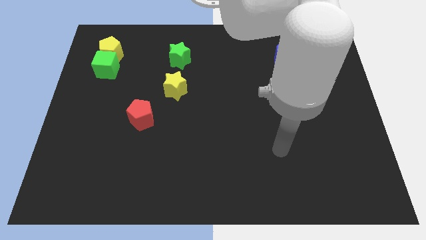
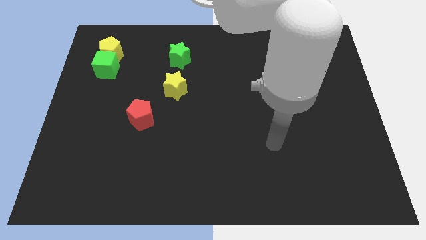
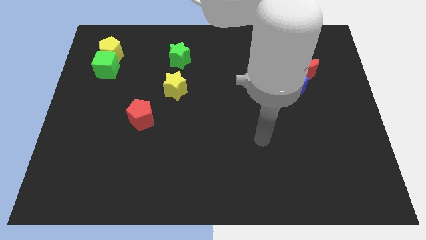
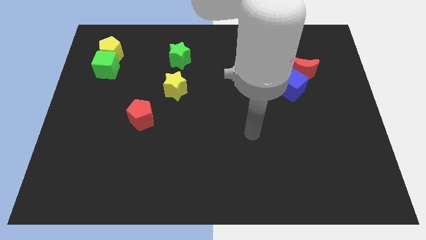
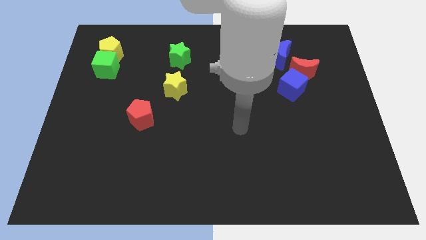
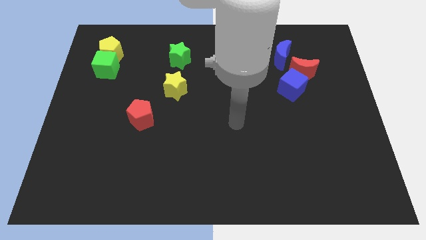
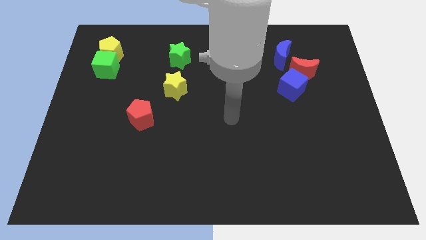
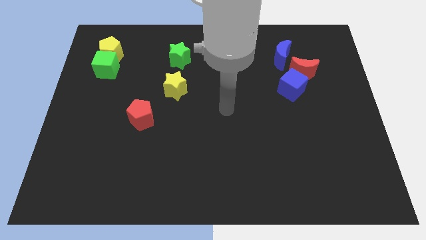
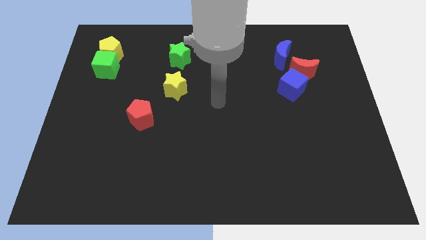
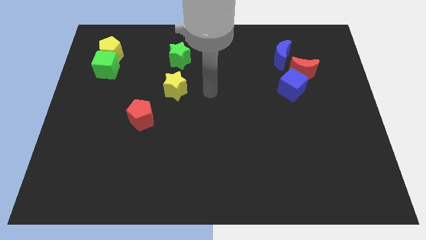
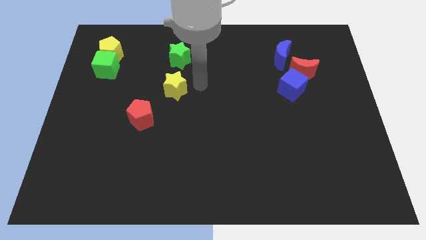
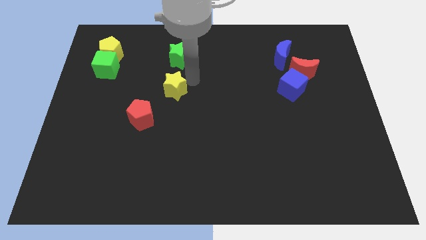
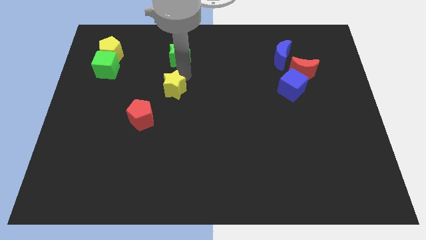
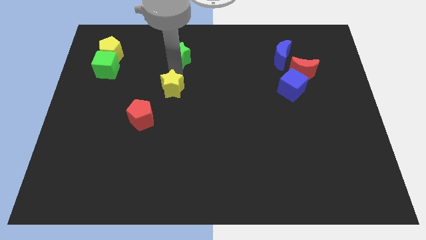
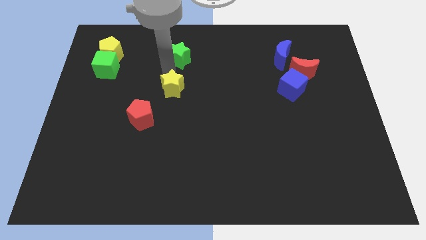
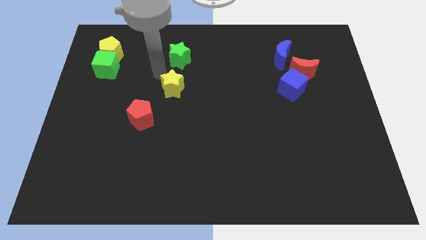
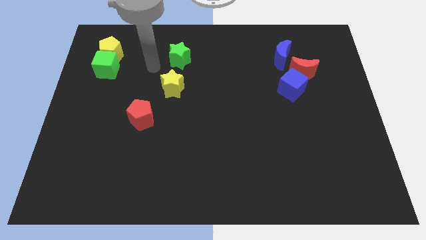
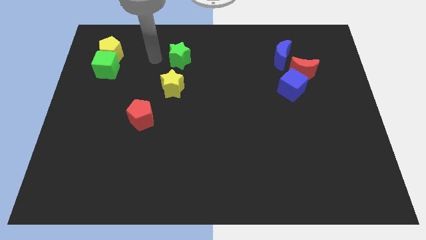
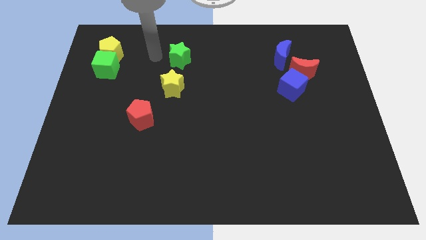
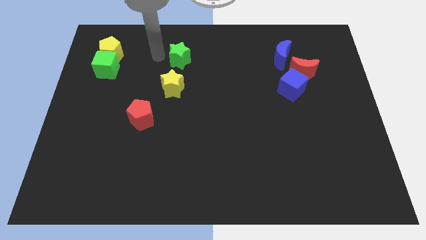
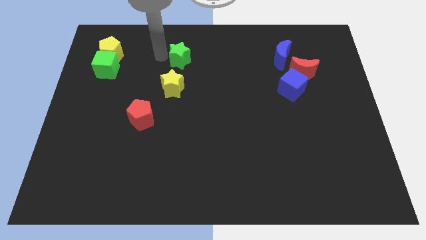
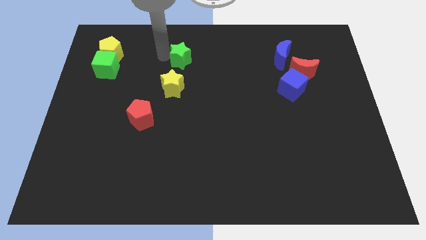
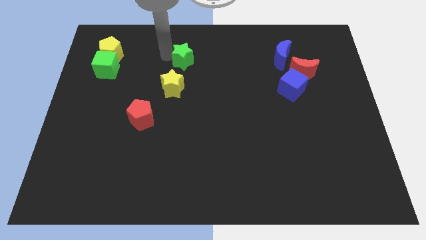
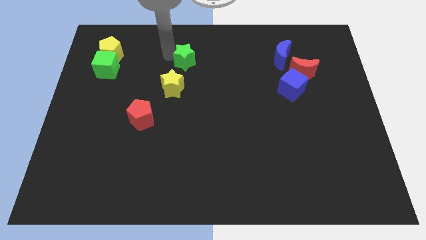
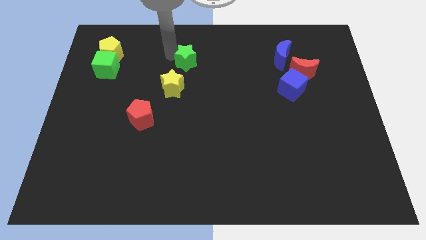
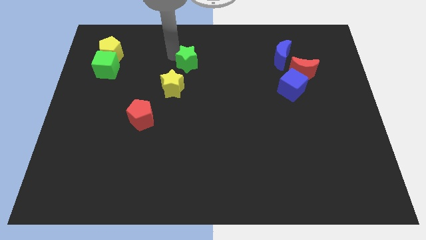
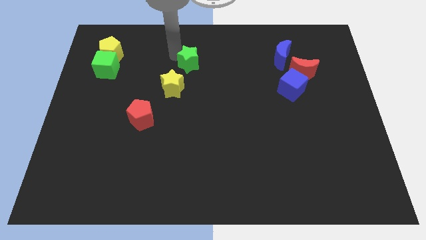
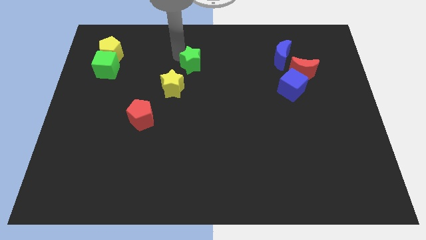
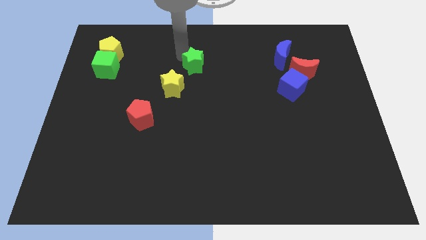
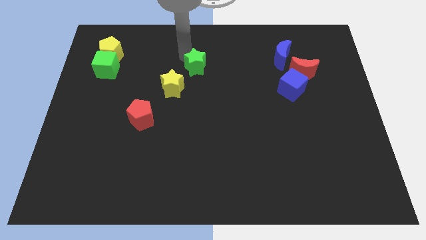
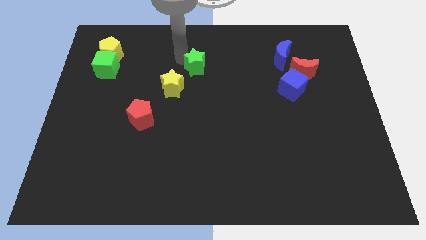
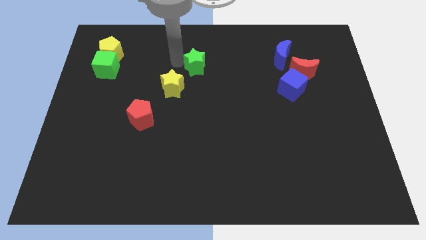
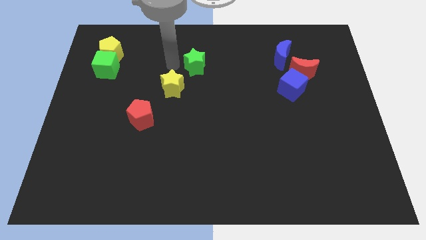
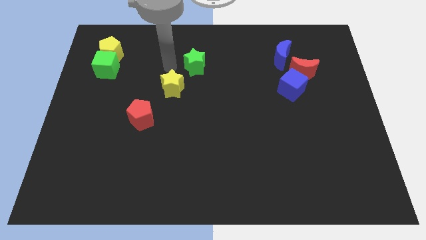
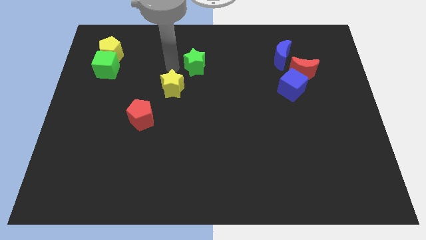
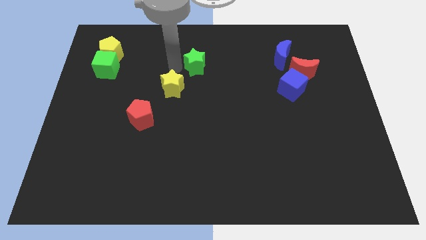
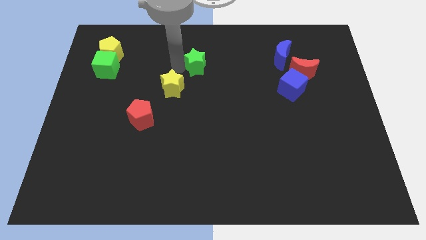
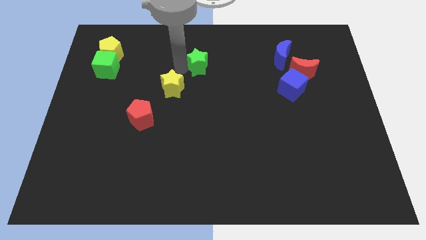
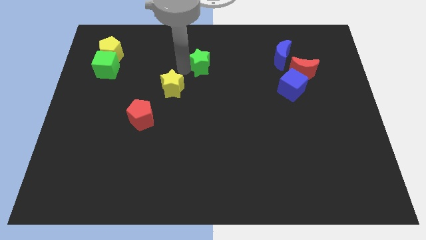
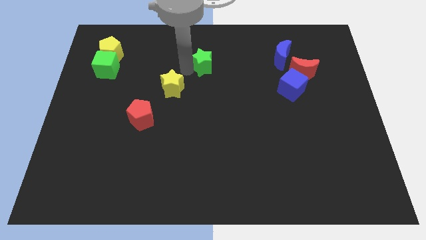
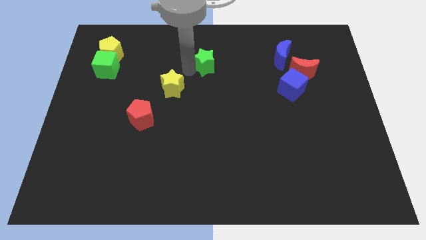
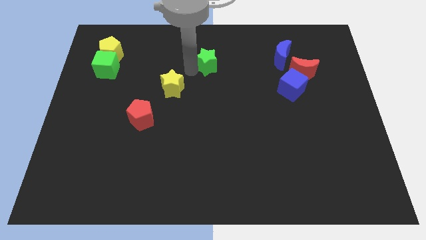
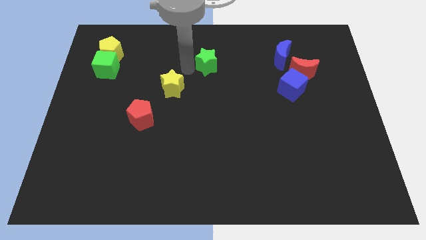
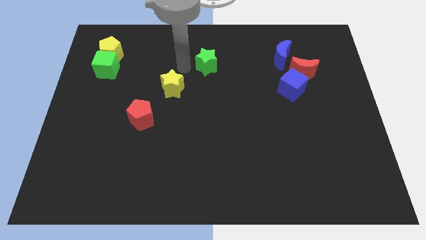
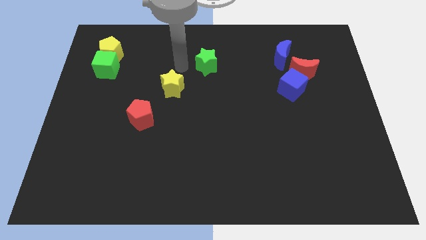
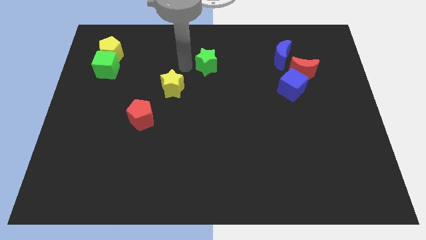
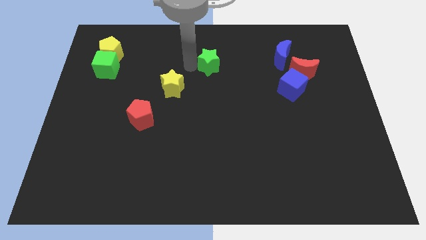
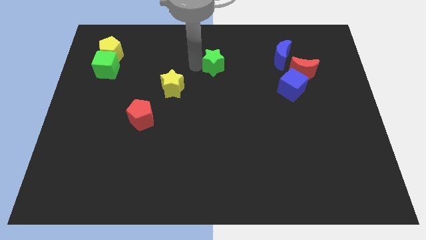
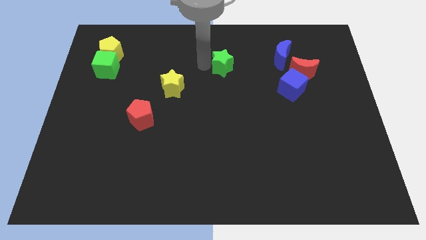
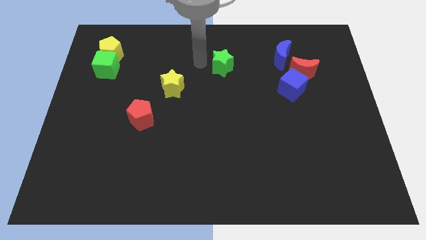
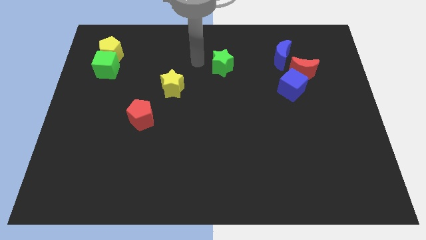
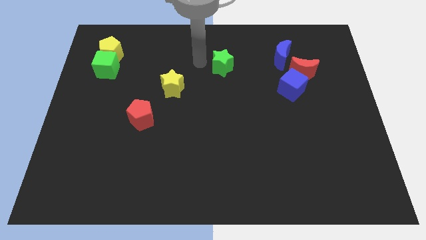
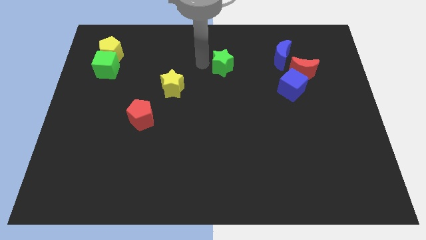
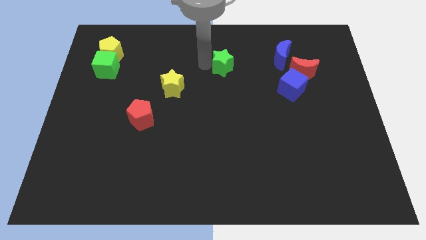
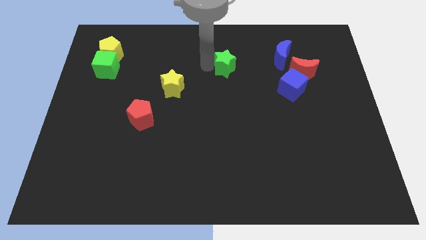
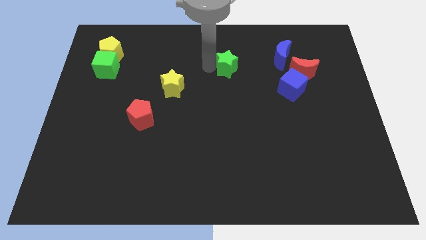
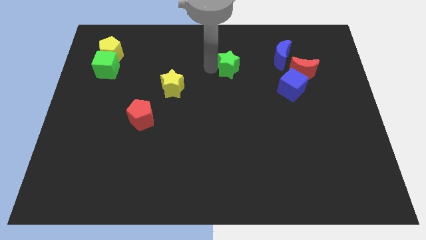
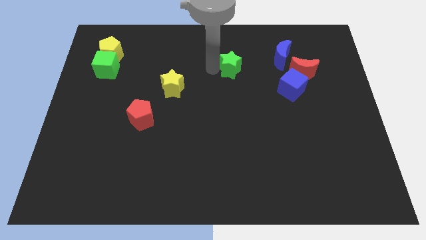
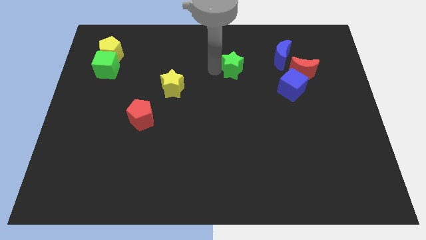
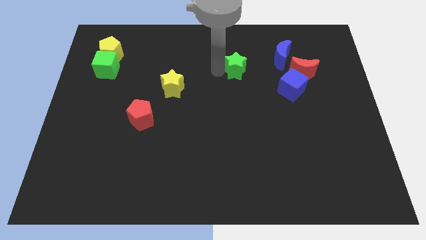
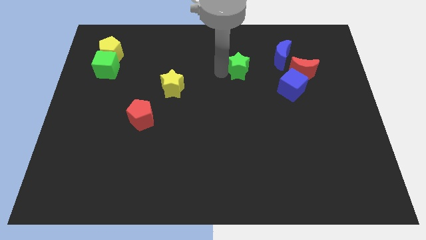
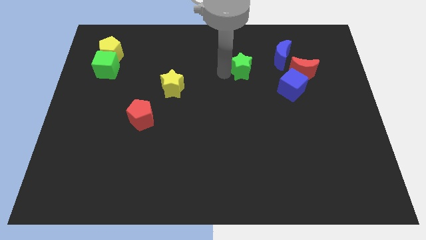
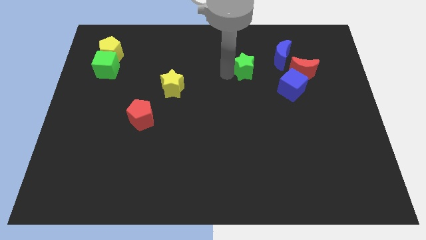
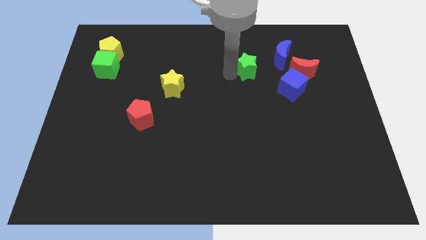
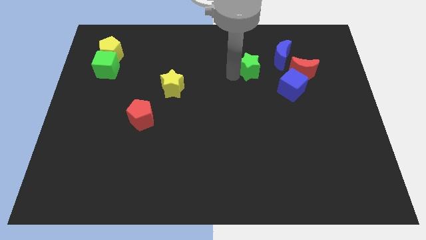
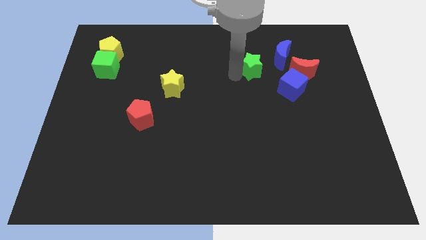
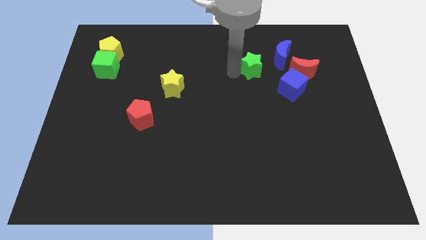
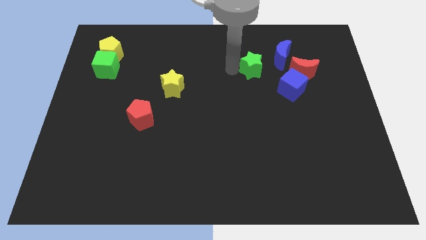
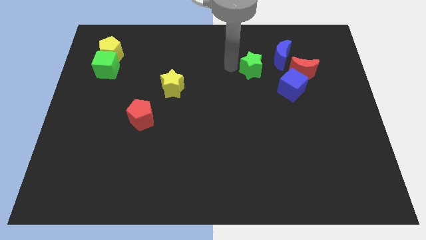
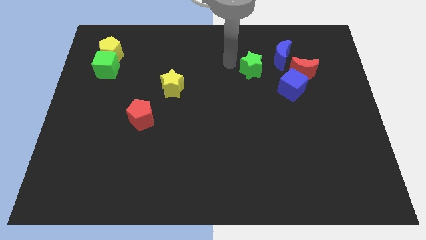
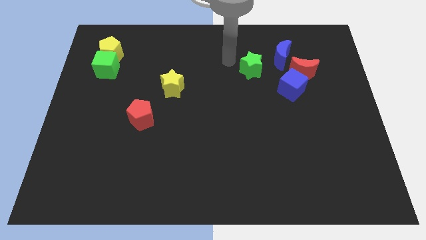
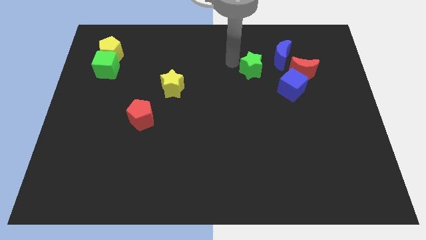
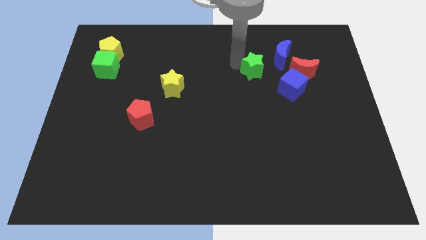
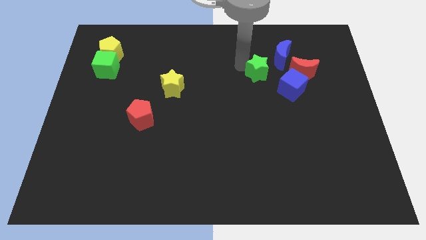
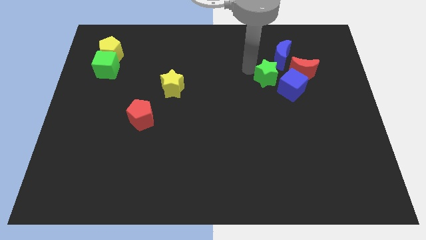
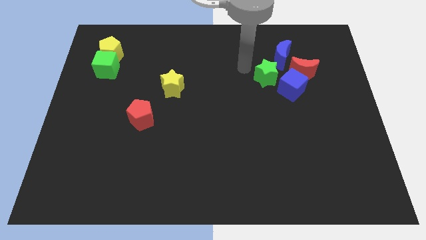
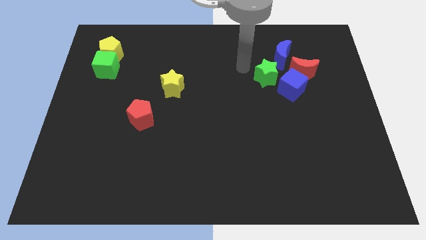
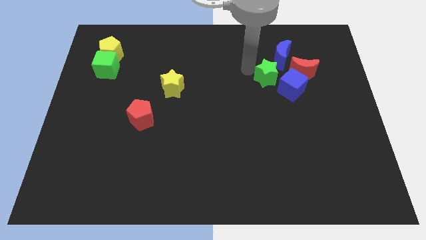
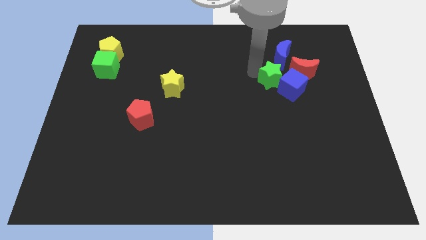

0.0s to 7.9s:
push the green star towards the blue cube

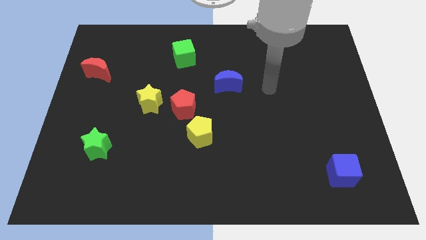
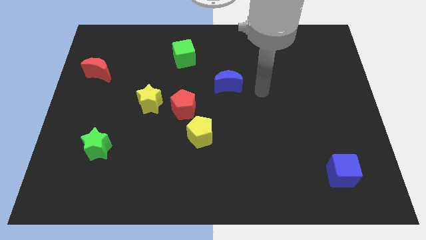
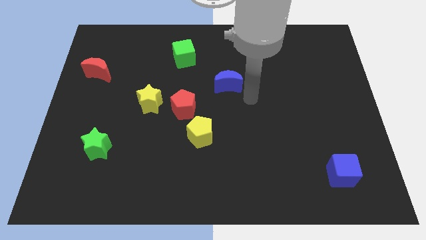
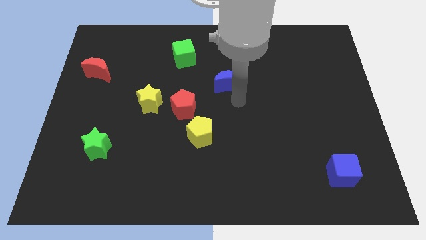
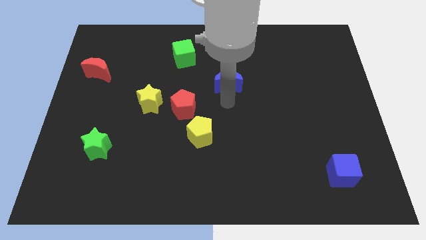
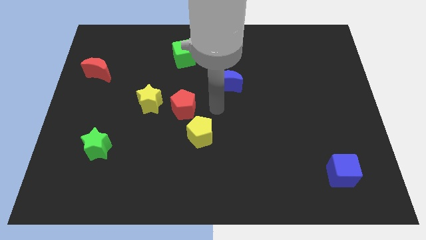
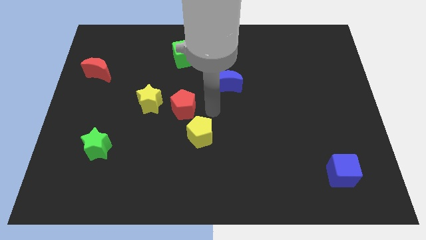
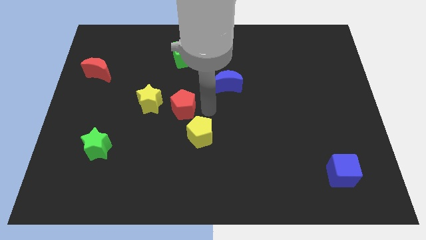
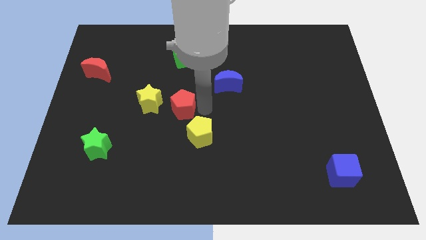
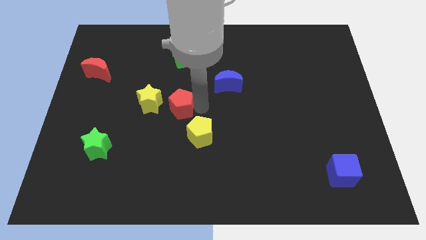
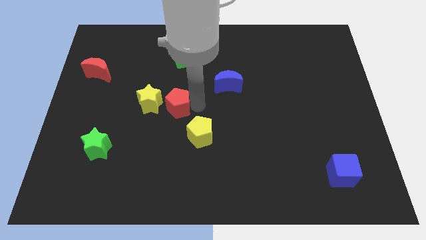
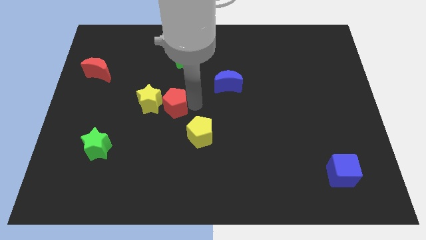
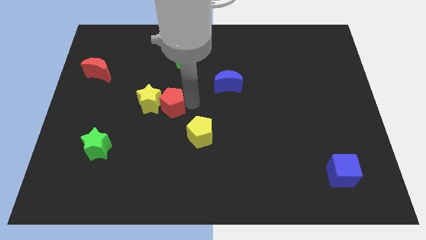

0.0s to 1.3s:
move the red pentagon towards the yellow star
